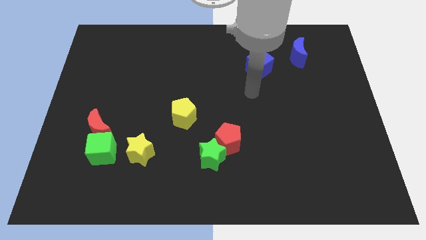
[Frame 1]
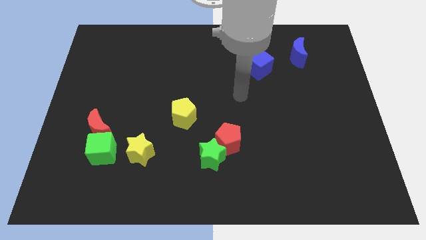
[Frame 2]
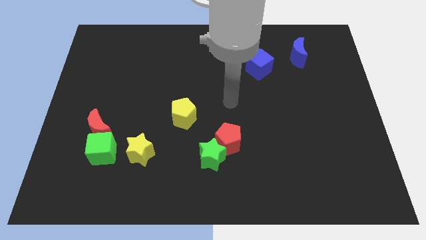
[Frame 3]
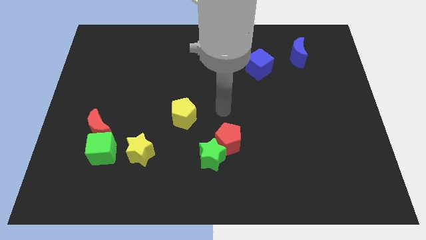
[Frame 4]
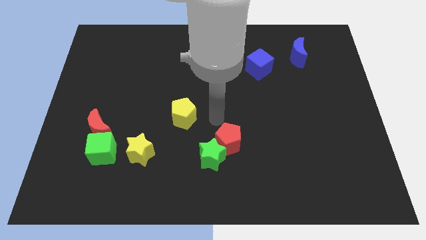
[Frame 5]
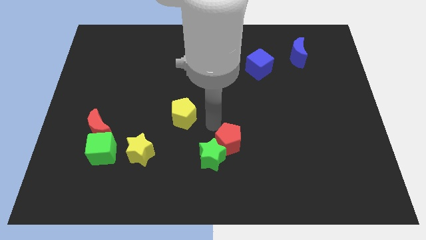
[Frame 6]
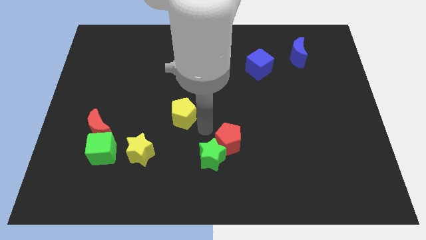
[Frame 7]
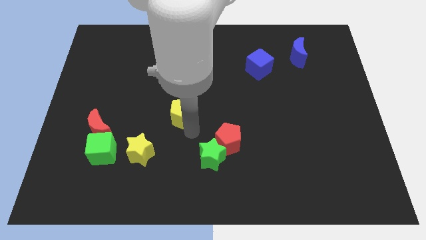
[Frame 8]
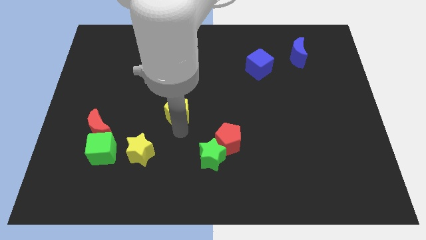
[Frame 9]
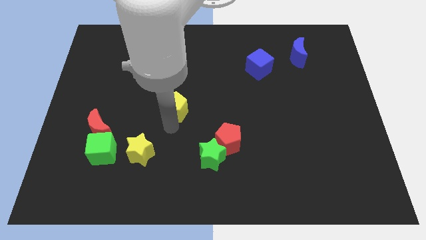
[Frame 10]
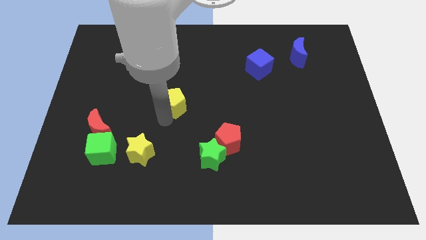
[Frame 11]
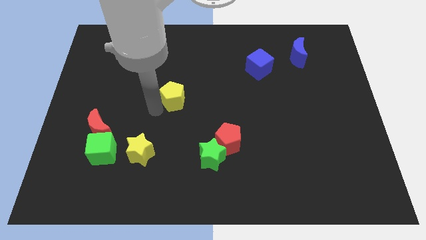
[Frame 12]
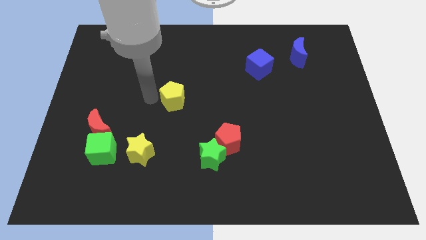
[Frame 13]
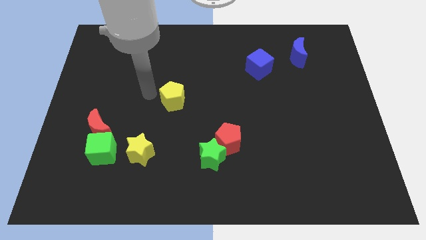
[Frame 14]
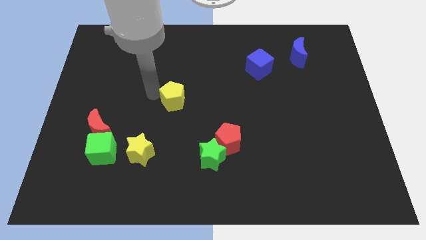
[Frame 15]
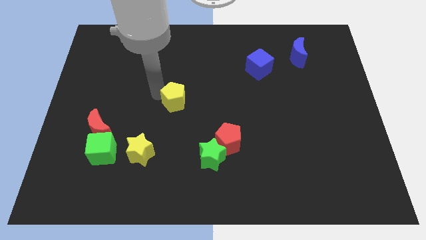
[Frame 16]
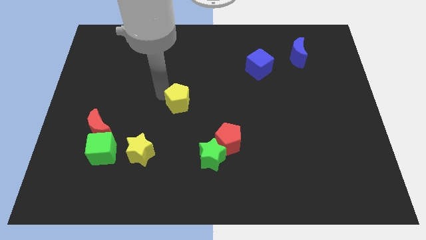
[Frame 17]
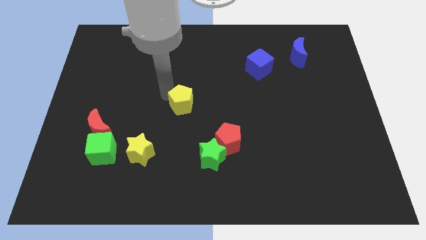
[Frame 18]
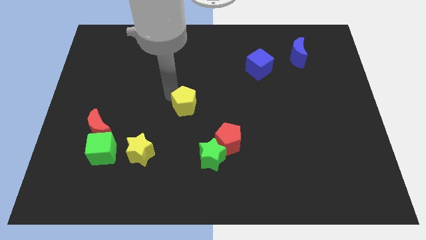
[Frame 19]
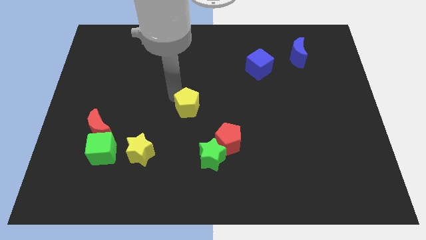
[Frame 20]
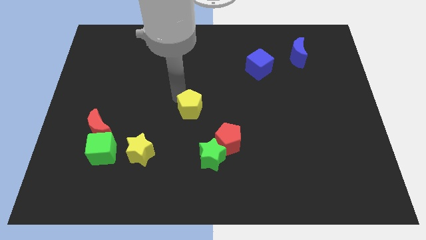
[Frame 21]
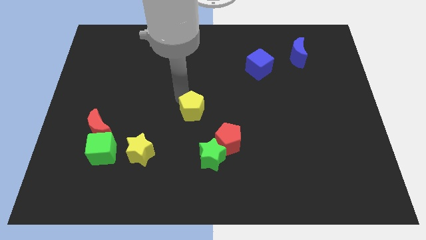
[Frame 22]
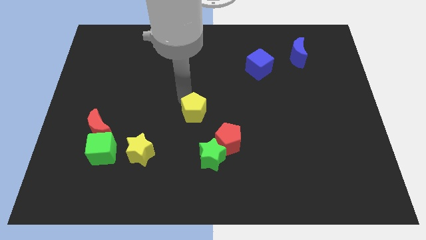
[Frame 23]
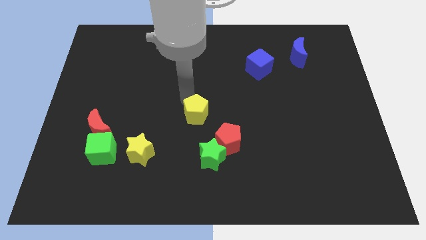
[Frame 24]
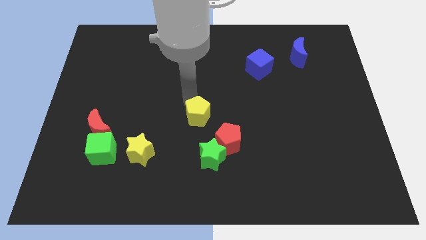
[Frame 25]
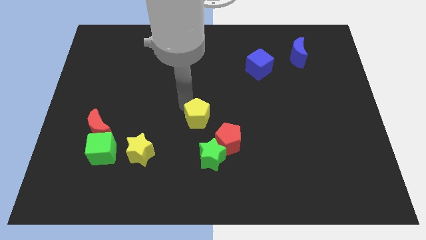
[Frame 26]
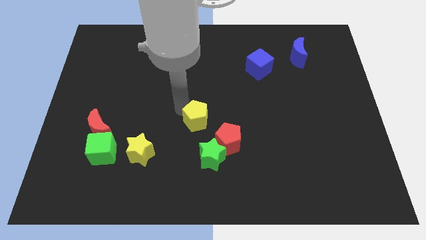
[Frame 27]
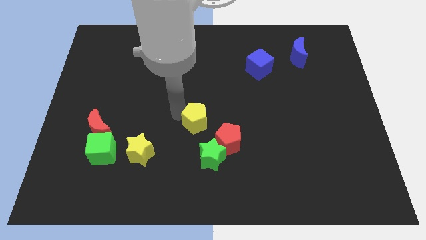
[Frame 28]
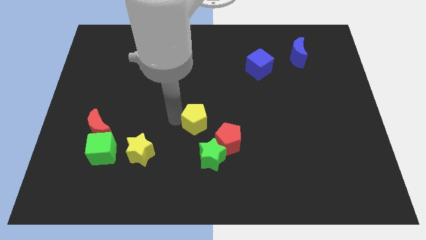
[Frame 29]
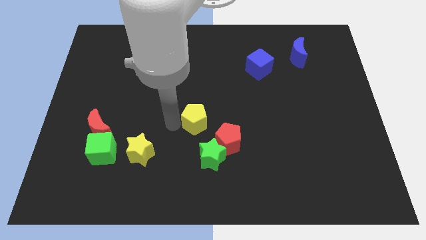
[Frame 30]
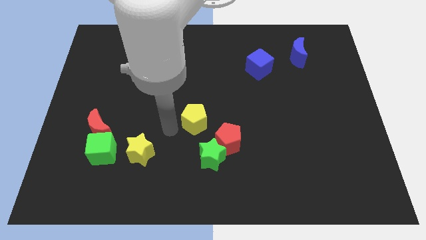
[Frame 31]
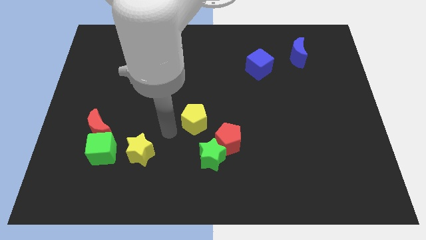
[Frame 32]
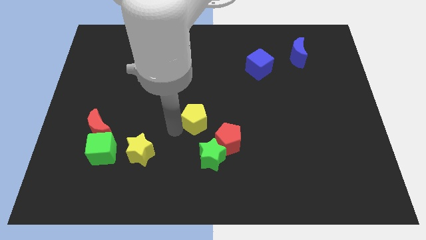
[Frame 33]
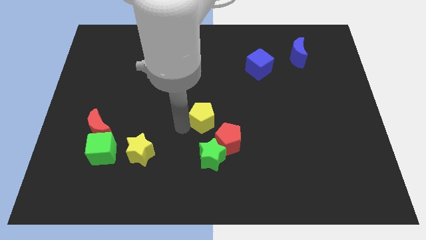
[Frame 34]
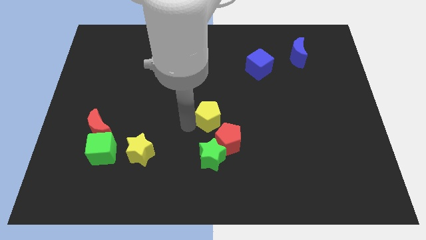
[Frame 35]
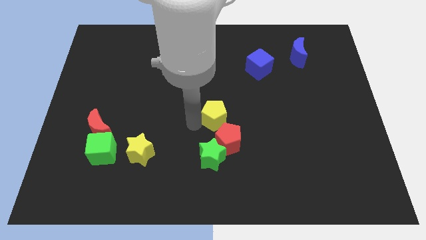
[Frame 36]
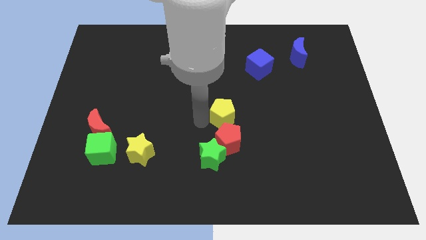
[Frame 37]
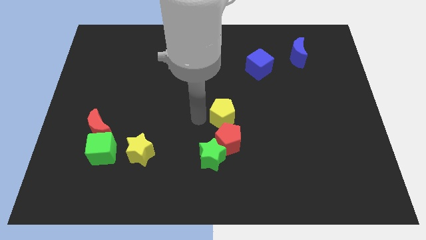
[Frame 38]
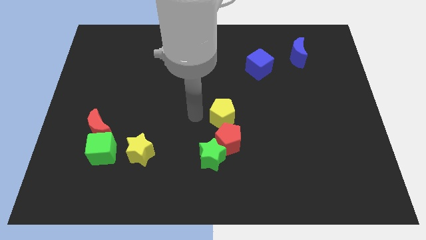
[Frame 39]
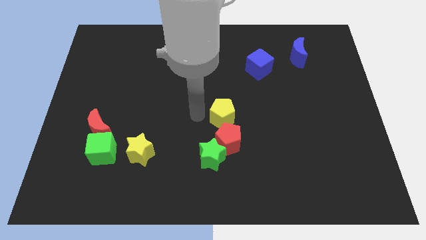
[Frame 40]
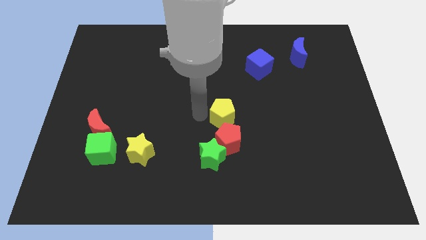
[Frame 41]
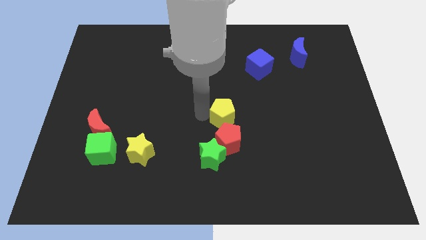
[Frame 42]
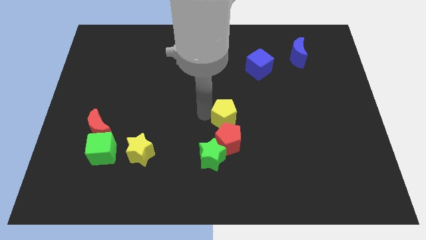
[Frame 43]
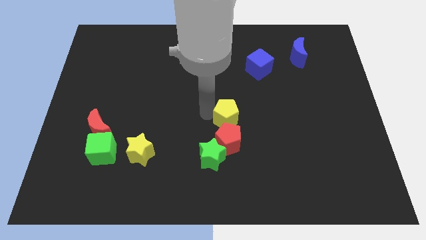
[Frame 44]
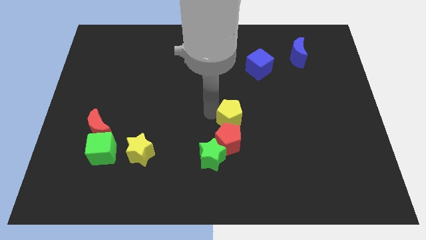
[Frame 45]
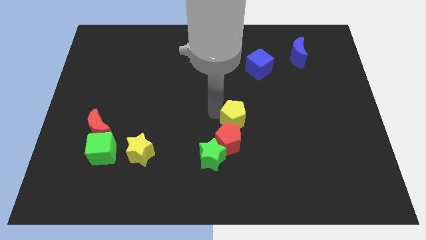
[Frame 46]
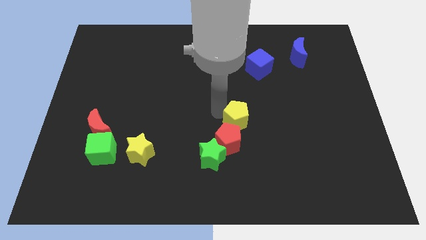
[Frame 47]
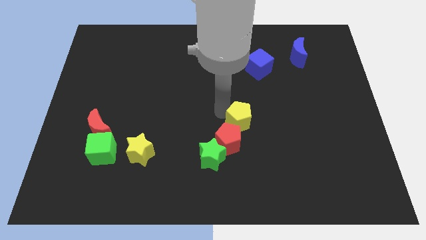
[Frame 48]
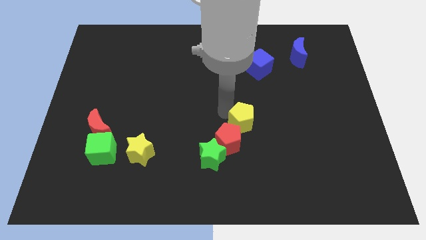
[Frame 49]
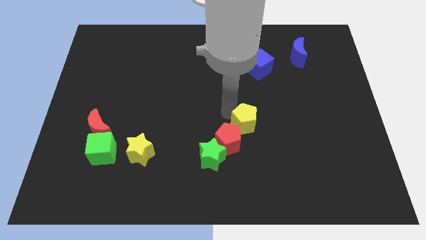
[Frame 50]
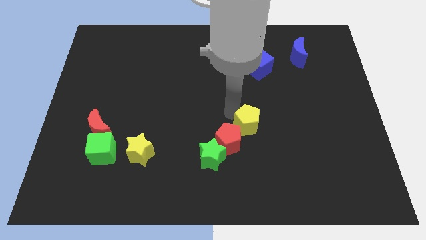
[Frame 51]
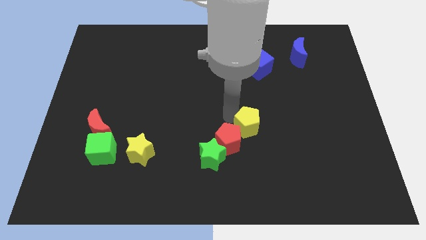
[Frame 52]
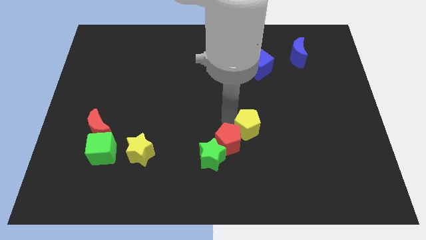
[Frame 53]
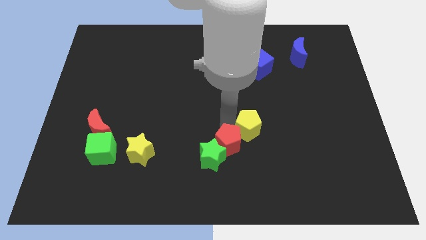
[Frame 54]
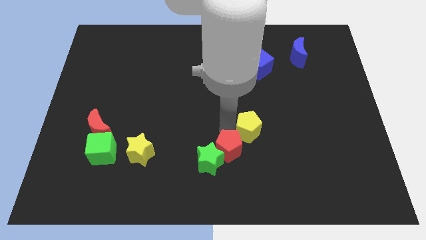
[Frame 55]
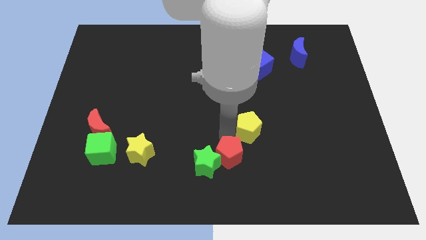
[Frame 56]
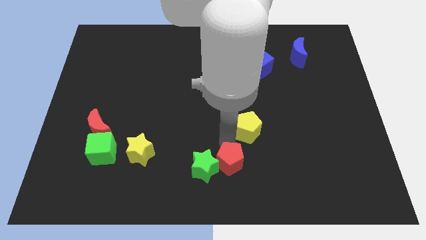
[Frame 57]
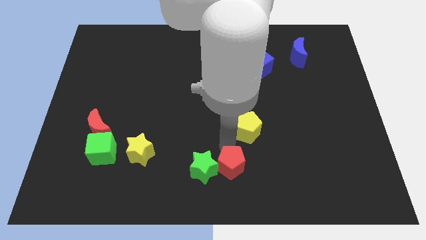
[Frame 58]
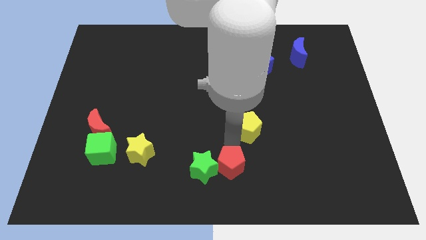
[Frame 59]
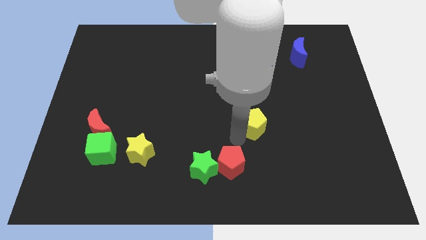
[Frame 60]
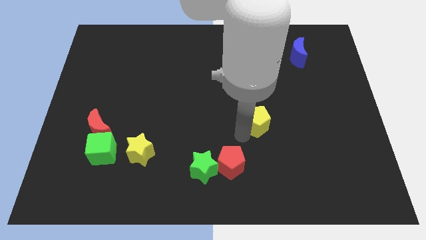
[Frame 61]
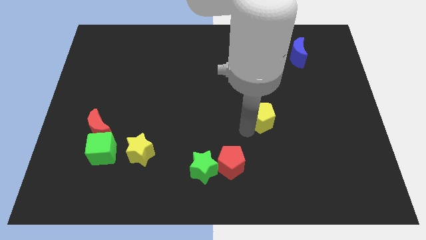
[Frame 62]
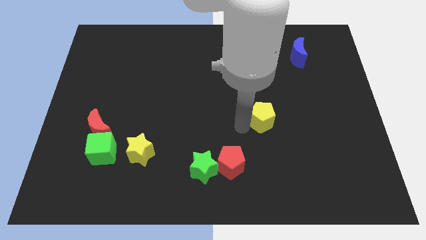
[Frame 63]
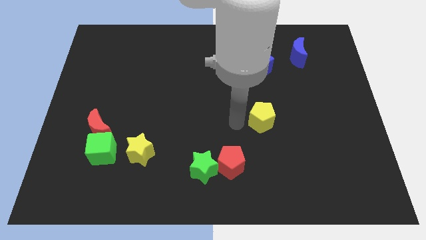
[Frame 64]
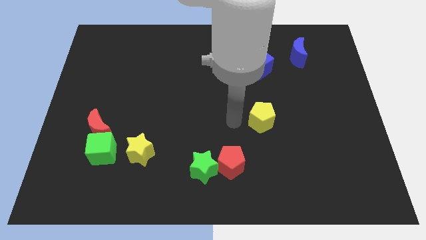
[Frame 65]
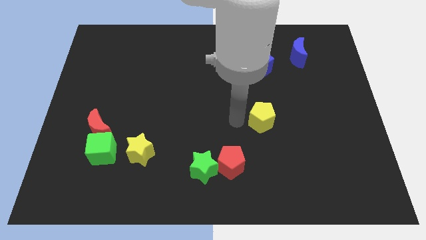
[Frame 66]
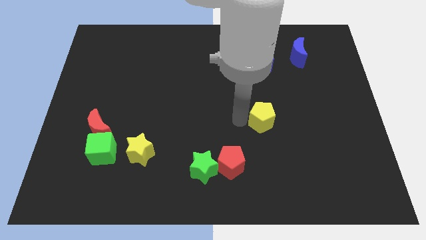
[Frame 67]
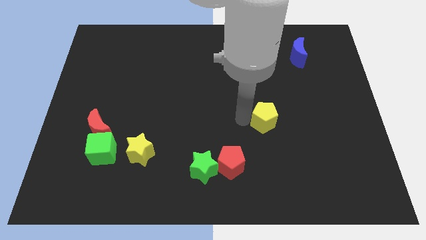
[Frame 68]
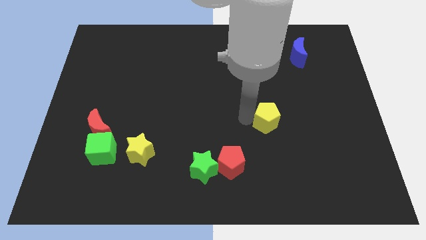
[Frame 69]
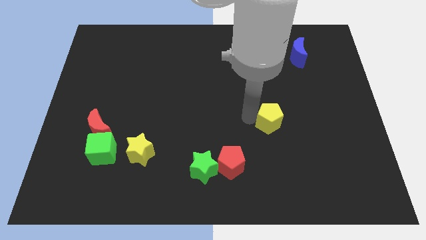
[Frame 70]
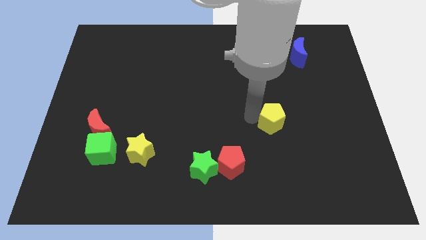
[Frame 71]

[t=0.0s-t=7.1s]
slide the yellow pentagon to the right

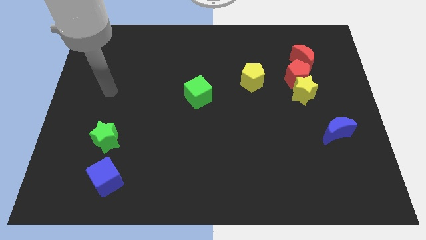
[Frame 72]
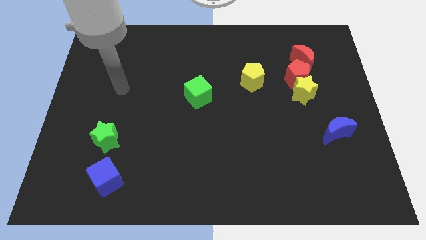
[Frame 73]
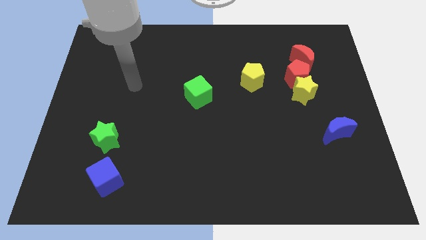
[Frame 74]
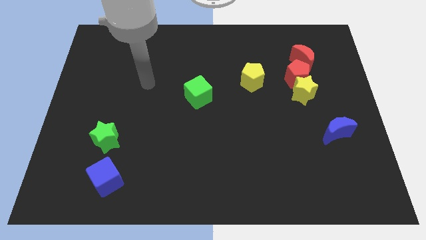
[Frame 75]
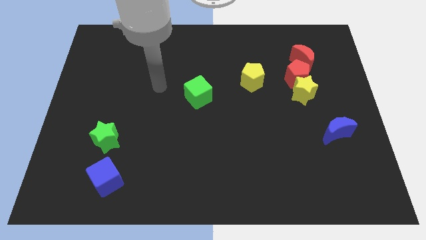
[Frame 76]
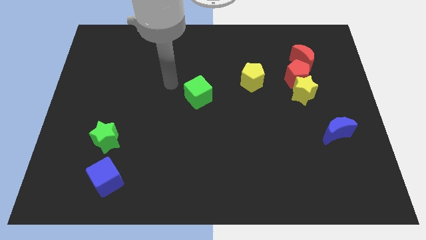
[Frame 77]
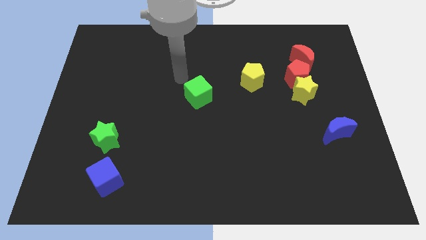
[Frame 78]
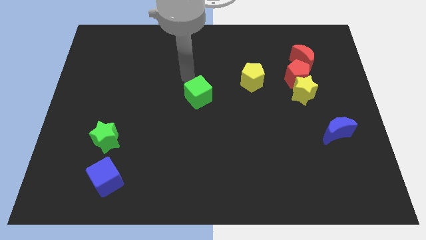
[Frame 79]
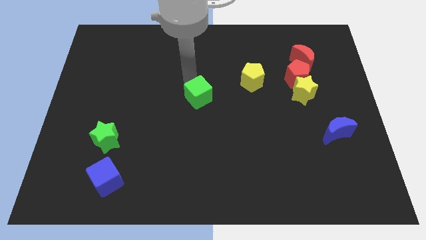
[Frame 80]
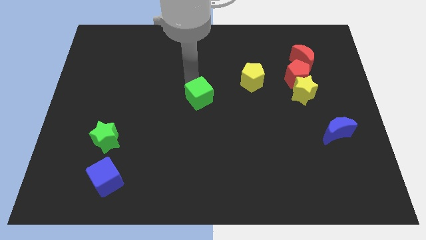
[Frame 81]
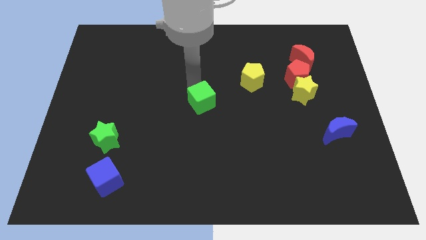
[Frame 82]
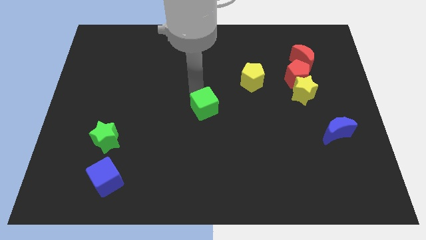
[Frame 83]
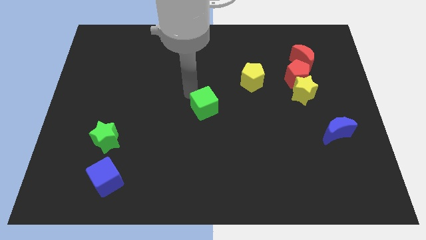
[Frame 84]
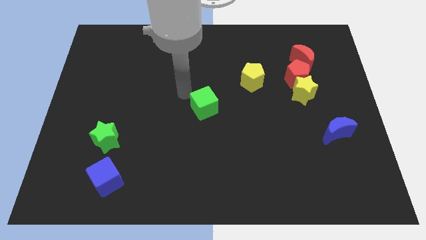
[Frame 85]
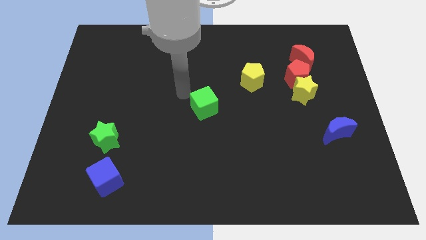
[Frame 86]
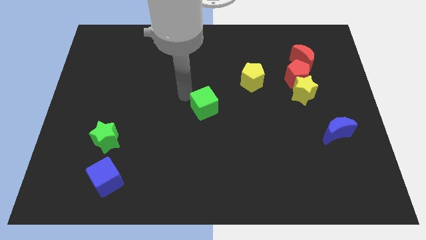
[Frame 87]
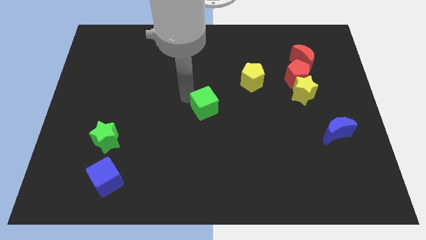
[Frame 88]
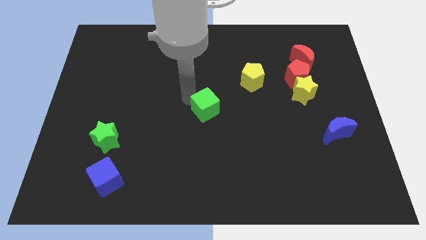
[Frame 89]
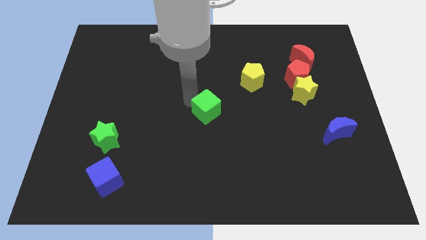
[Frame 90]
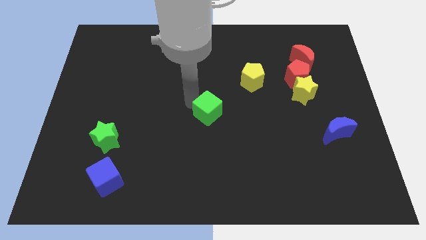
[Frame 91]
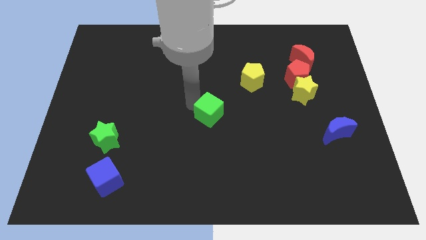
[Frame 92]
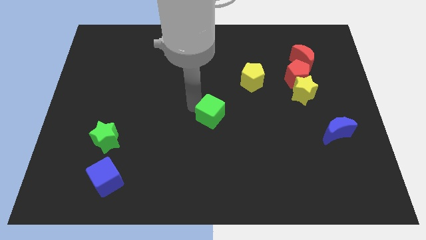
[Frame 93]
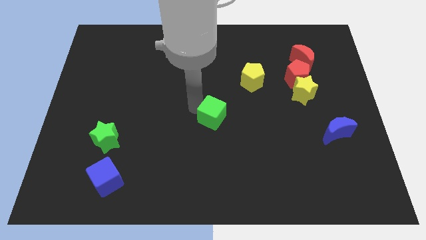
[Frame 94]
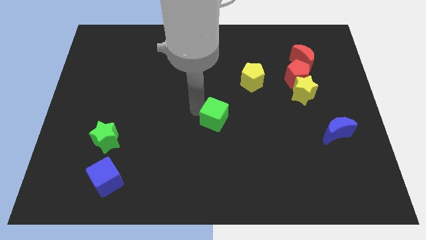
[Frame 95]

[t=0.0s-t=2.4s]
move the green cube a little bit downwards and to the right
